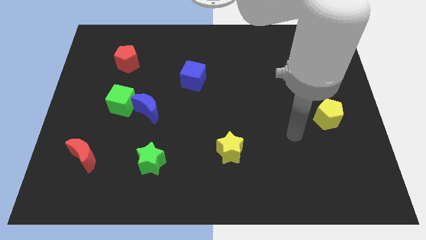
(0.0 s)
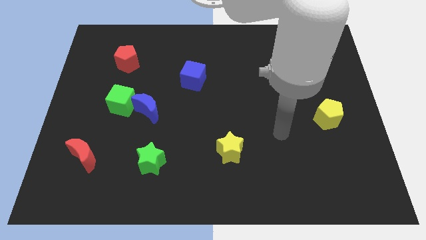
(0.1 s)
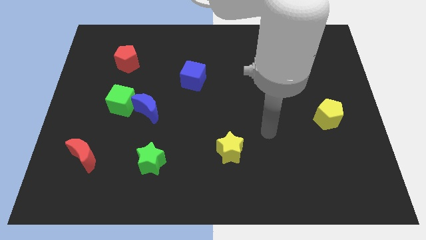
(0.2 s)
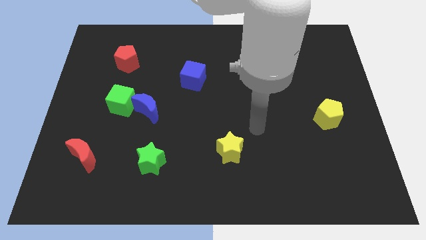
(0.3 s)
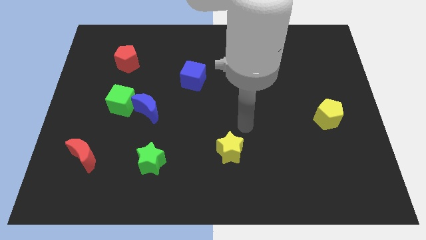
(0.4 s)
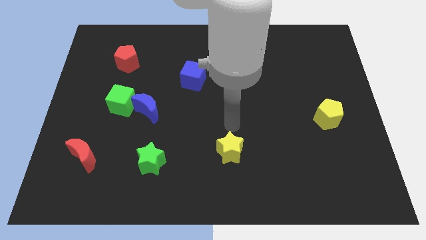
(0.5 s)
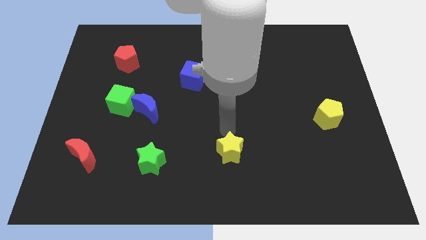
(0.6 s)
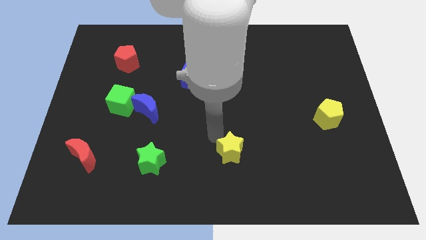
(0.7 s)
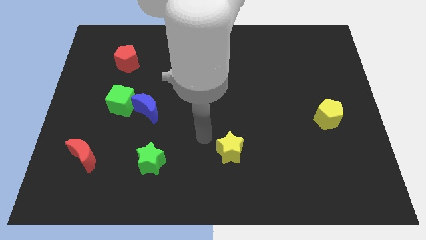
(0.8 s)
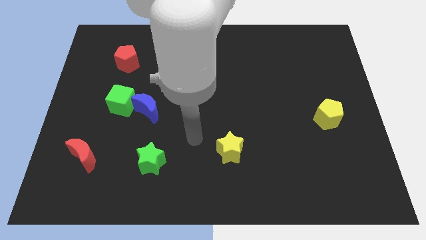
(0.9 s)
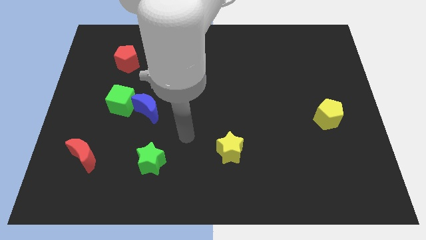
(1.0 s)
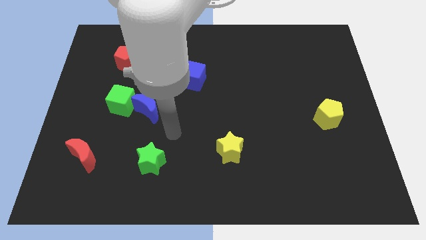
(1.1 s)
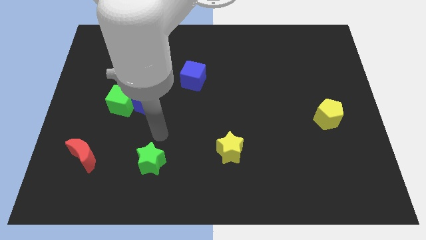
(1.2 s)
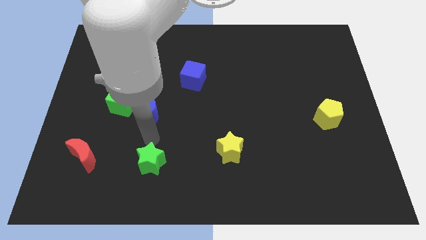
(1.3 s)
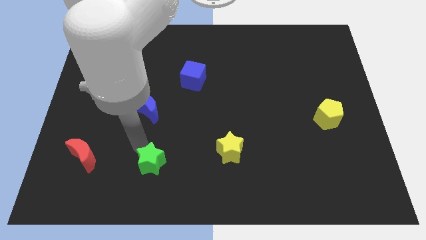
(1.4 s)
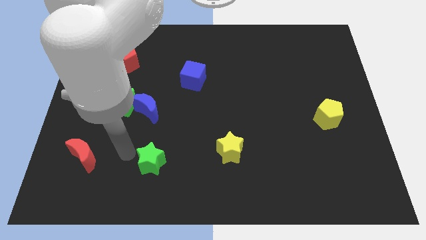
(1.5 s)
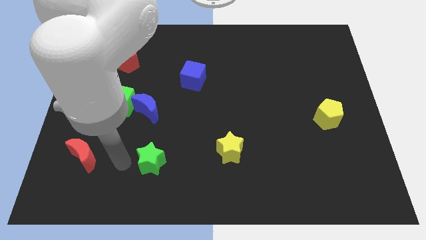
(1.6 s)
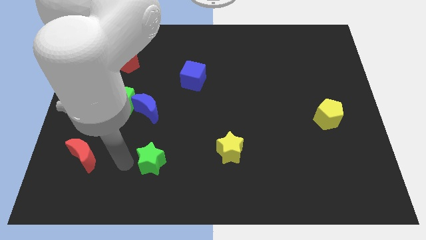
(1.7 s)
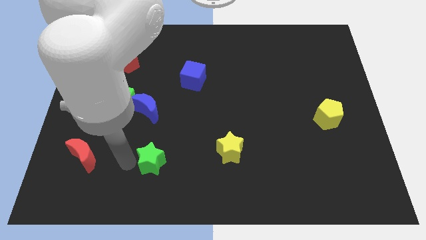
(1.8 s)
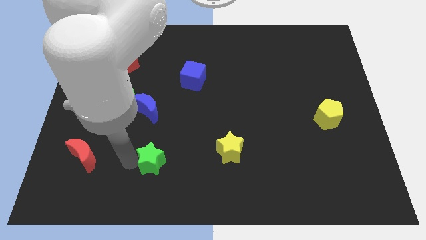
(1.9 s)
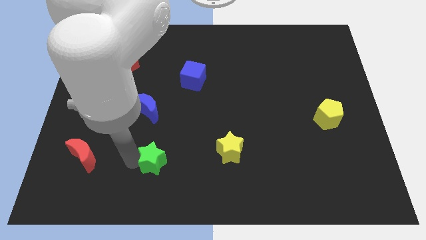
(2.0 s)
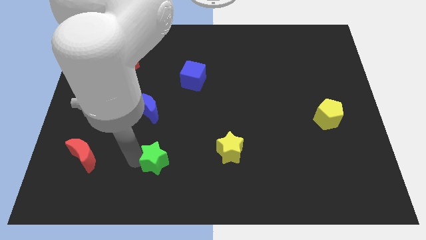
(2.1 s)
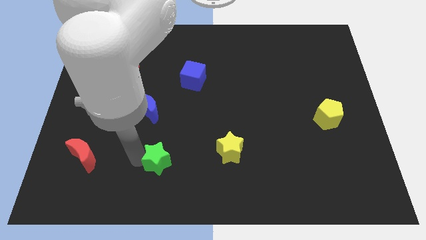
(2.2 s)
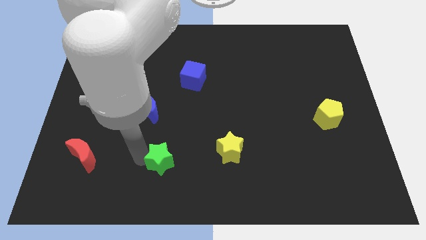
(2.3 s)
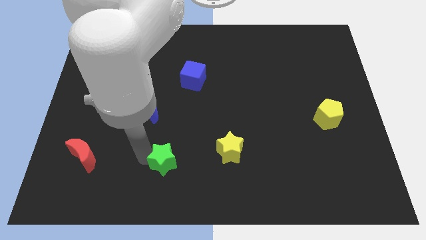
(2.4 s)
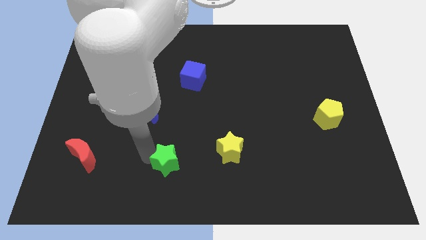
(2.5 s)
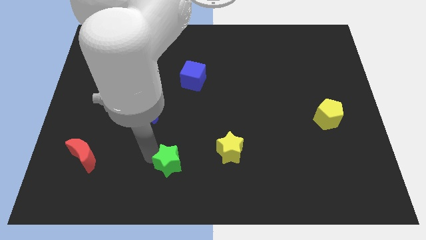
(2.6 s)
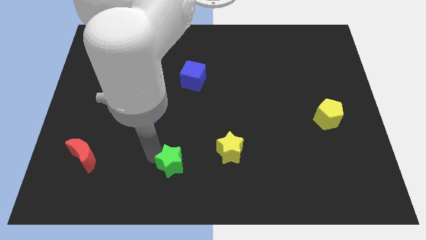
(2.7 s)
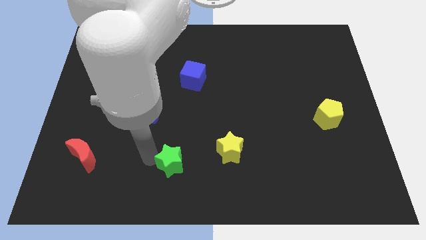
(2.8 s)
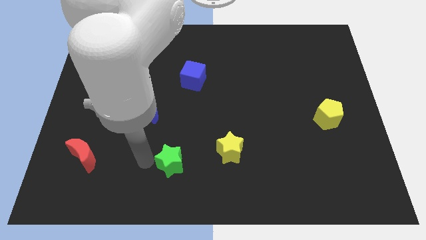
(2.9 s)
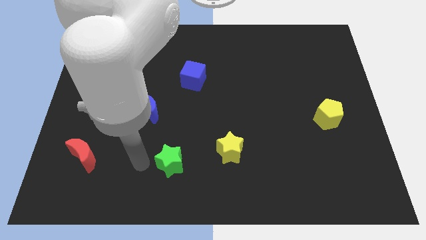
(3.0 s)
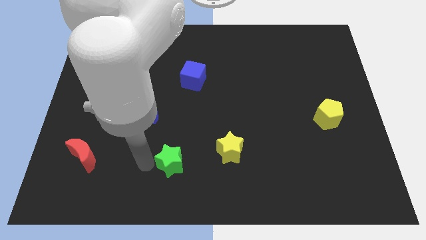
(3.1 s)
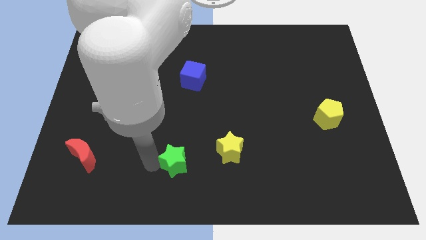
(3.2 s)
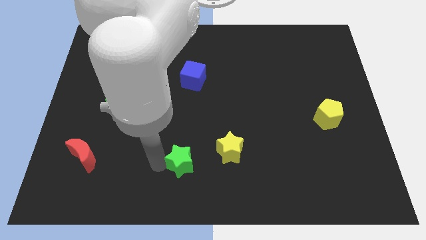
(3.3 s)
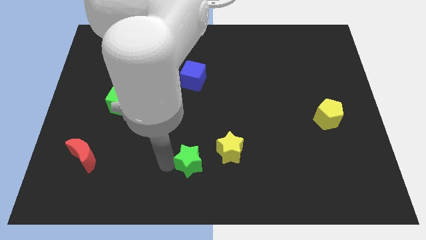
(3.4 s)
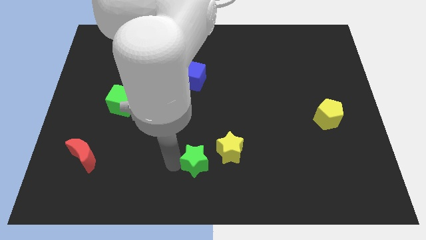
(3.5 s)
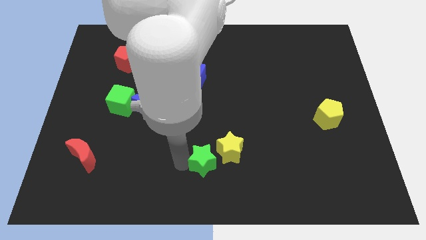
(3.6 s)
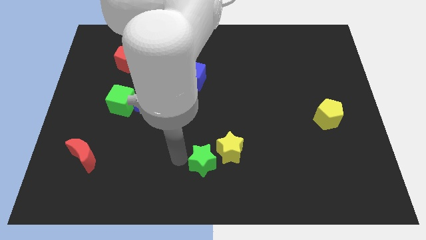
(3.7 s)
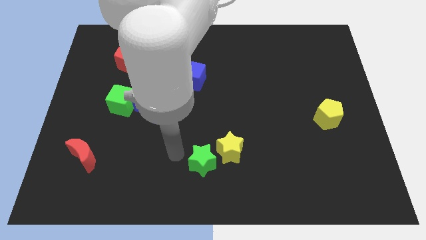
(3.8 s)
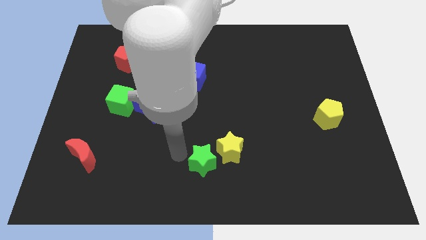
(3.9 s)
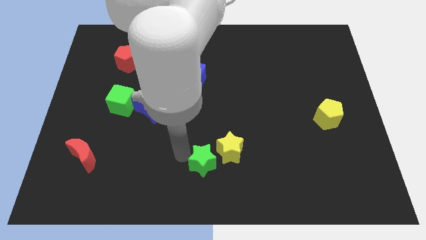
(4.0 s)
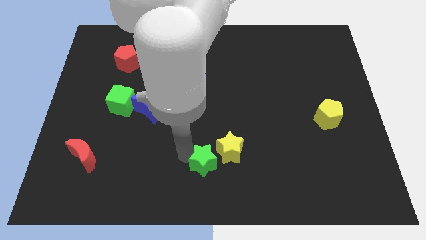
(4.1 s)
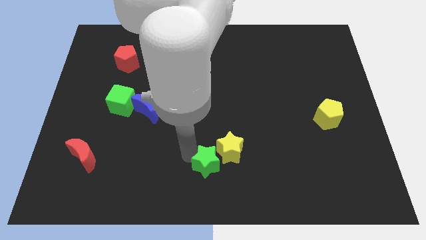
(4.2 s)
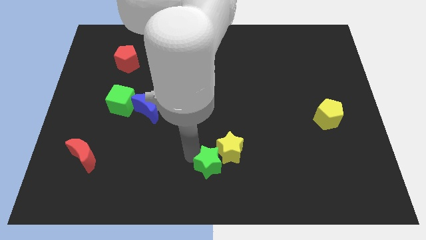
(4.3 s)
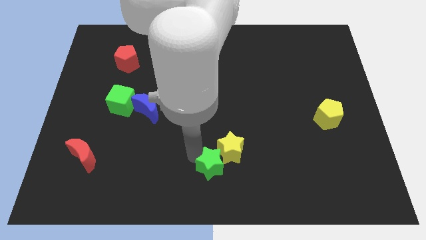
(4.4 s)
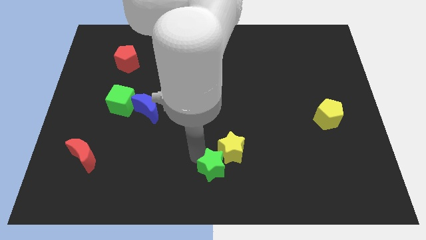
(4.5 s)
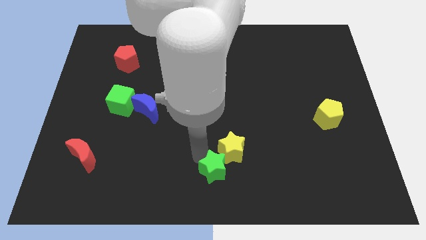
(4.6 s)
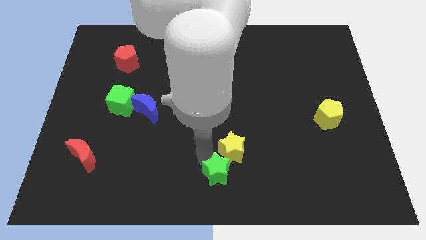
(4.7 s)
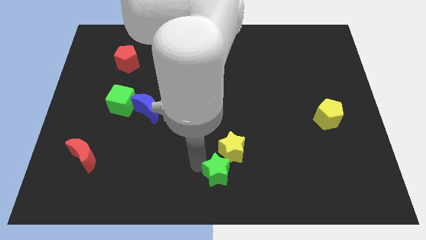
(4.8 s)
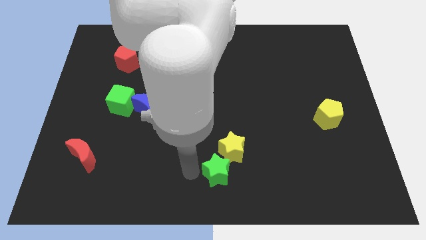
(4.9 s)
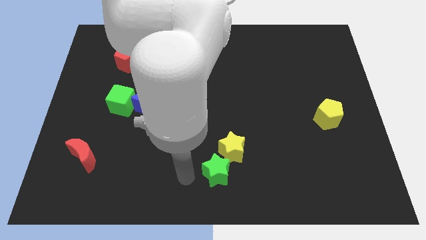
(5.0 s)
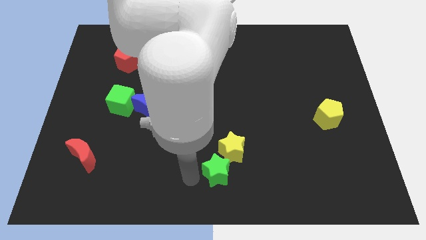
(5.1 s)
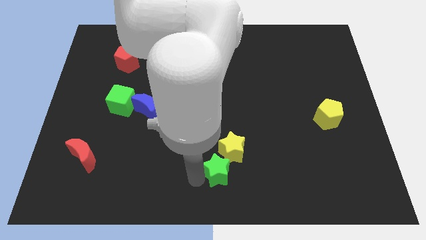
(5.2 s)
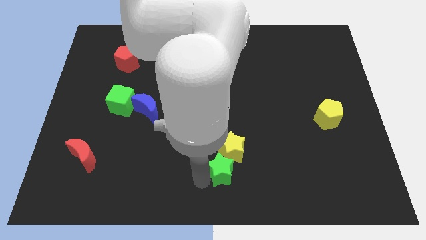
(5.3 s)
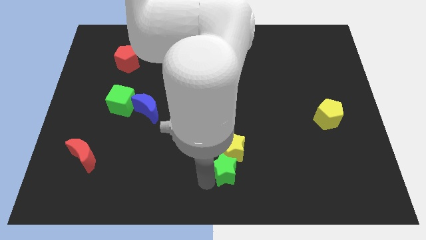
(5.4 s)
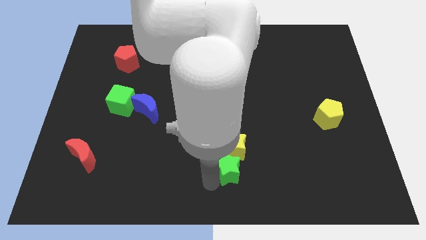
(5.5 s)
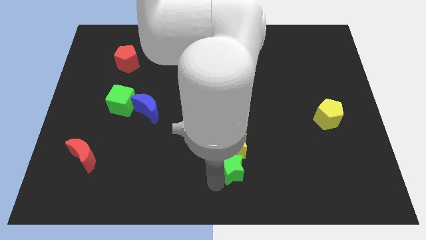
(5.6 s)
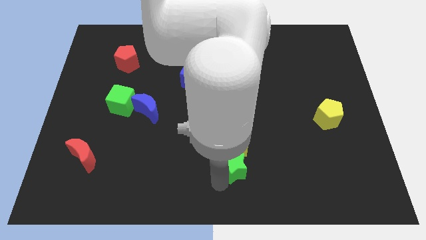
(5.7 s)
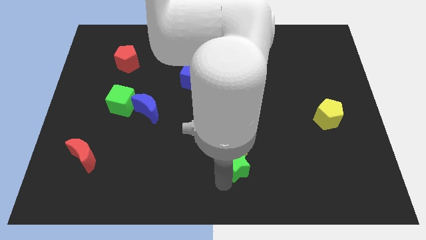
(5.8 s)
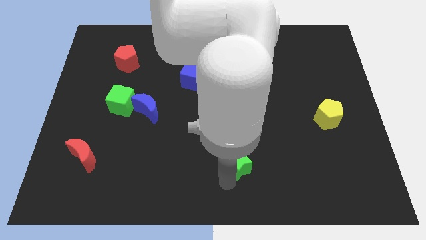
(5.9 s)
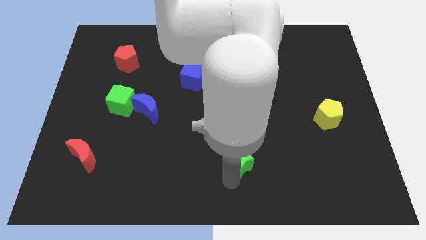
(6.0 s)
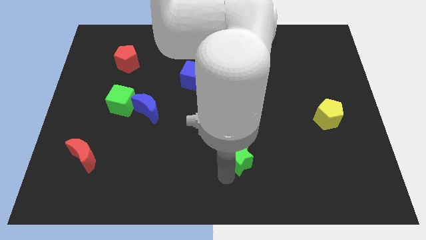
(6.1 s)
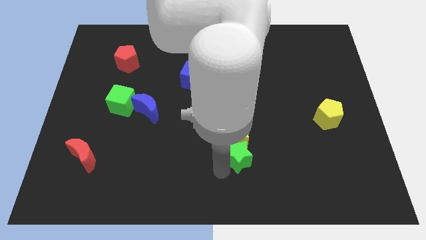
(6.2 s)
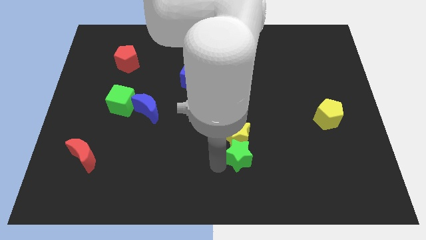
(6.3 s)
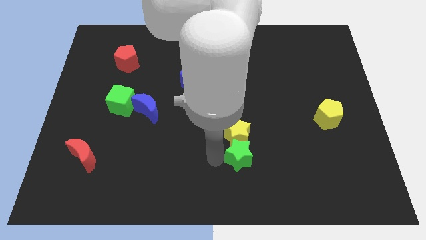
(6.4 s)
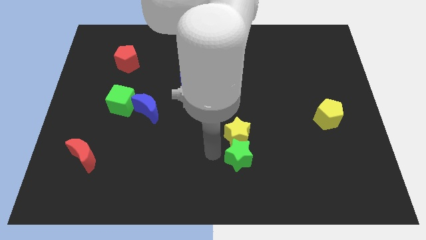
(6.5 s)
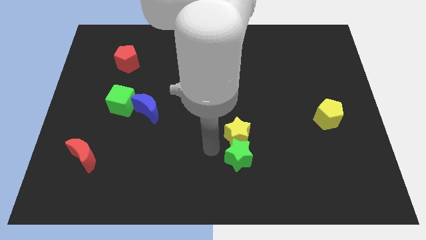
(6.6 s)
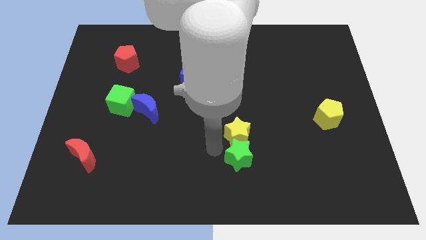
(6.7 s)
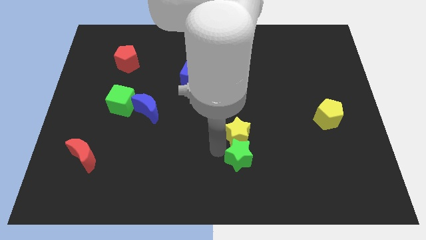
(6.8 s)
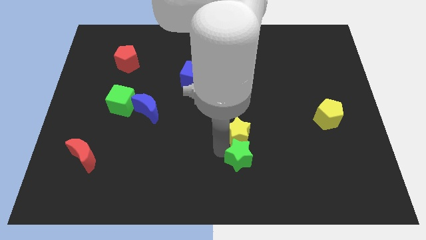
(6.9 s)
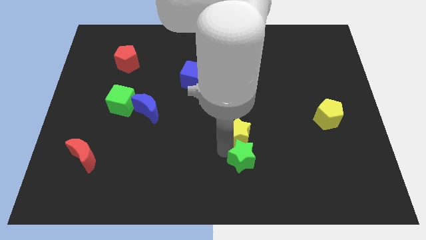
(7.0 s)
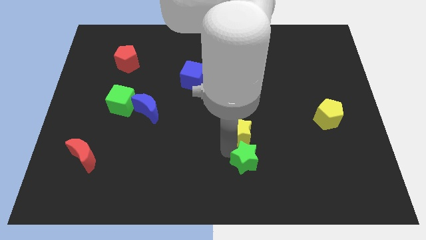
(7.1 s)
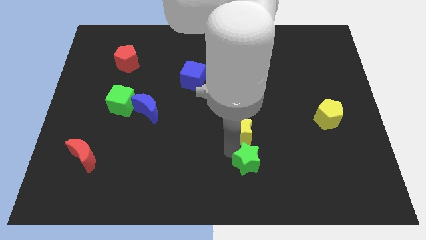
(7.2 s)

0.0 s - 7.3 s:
push the green star right

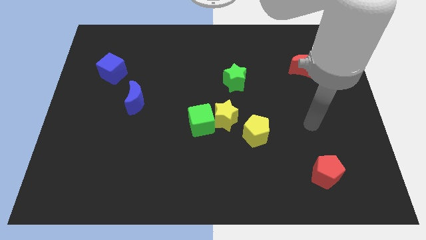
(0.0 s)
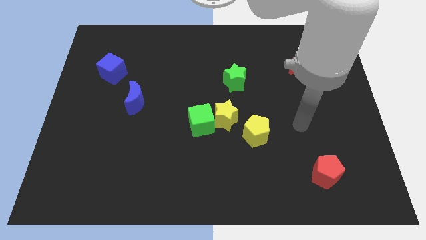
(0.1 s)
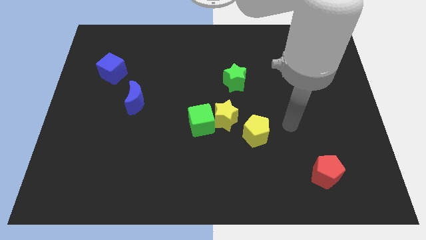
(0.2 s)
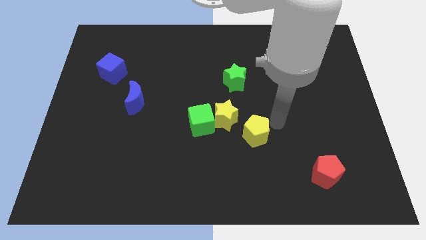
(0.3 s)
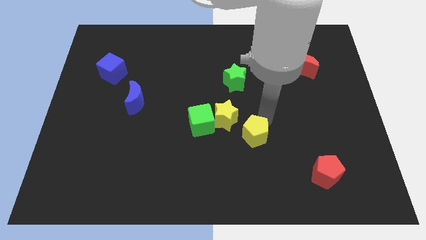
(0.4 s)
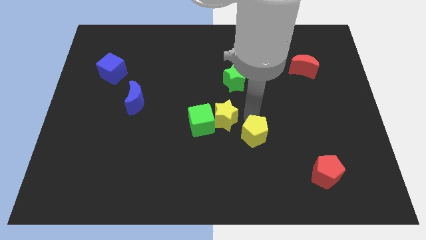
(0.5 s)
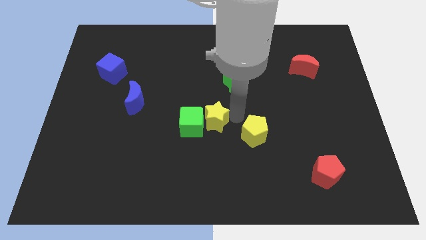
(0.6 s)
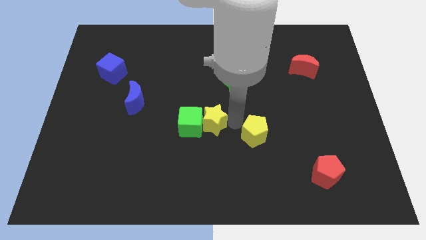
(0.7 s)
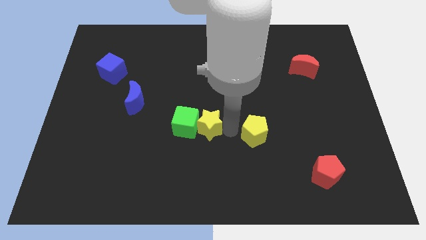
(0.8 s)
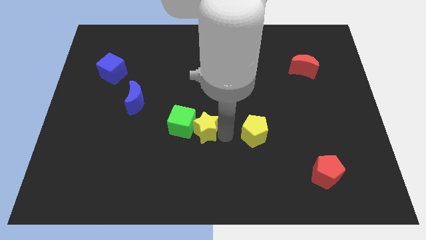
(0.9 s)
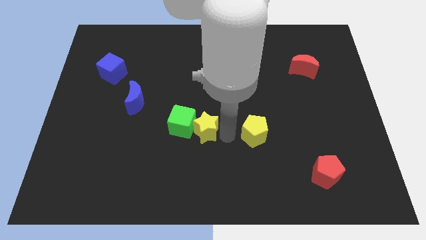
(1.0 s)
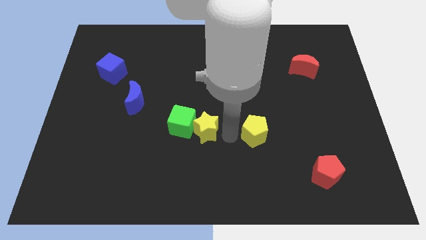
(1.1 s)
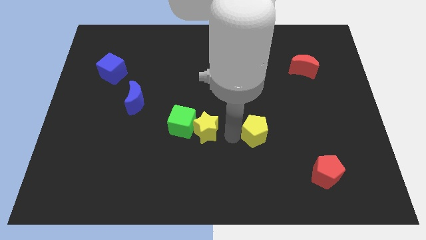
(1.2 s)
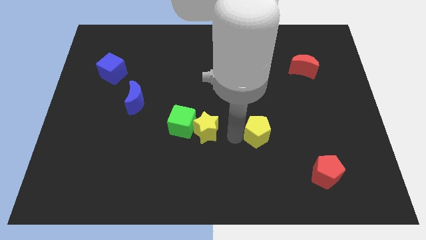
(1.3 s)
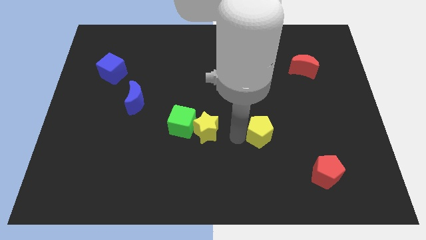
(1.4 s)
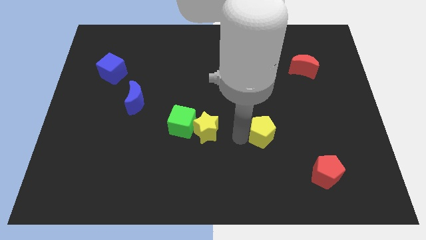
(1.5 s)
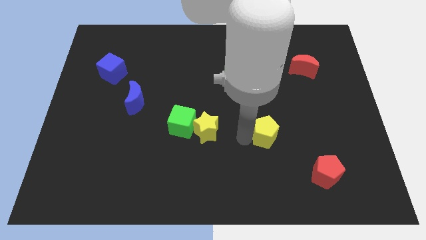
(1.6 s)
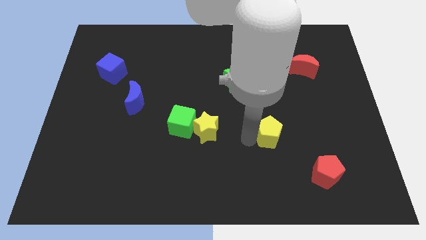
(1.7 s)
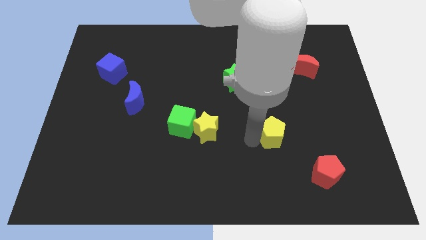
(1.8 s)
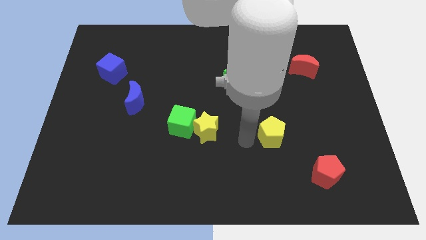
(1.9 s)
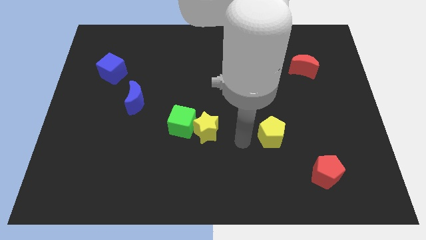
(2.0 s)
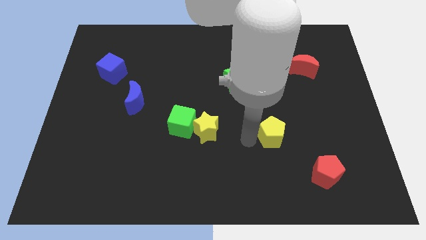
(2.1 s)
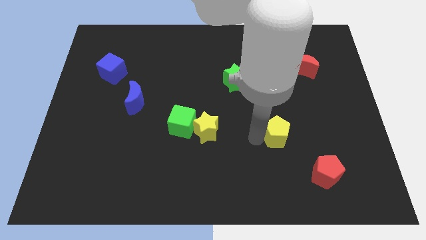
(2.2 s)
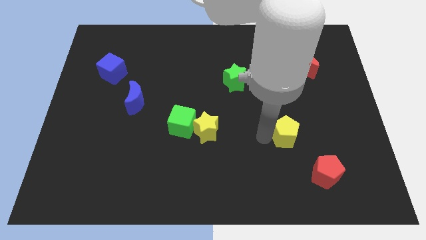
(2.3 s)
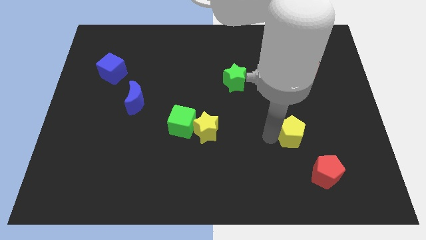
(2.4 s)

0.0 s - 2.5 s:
move the yellow pentagon a little to the right
